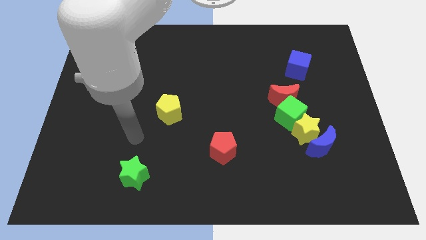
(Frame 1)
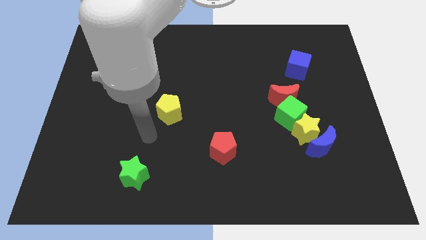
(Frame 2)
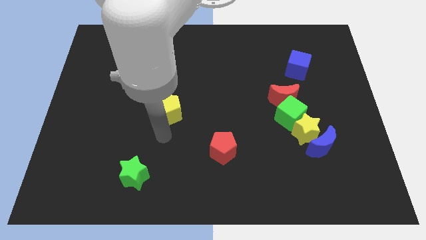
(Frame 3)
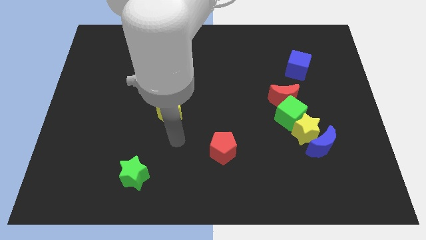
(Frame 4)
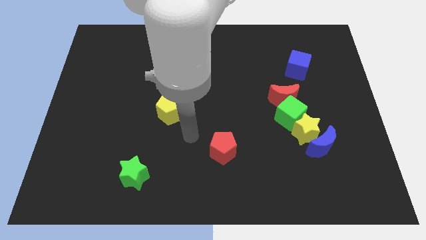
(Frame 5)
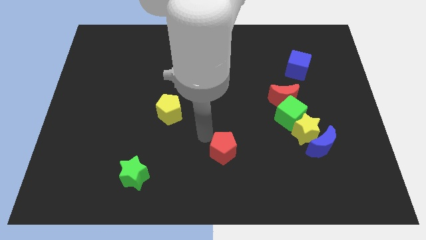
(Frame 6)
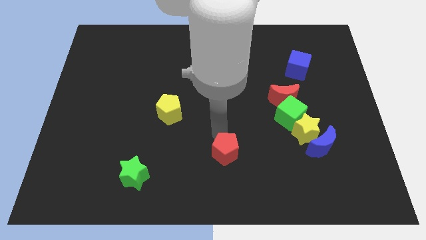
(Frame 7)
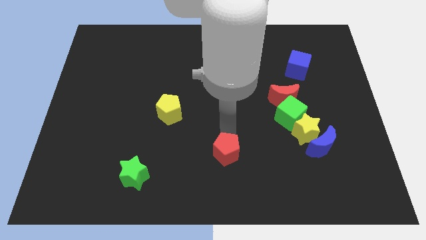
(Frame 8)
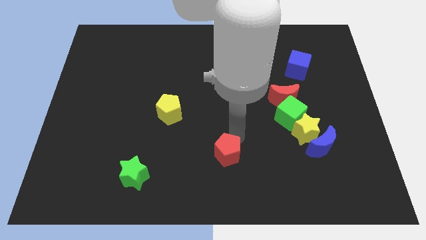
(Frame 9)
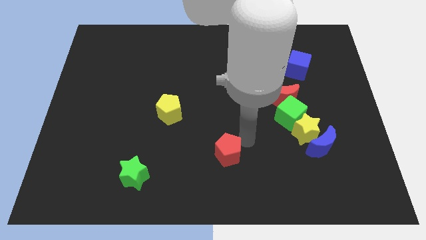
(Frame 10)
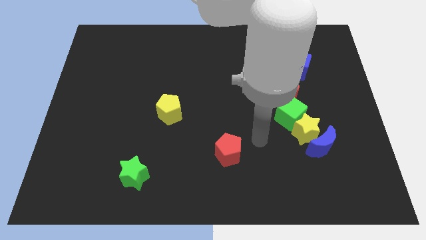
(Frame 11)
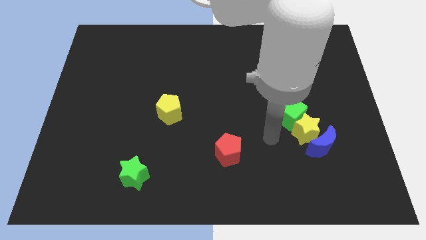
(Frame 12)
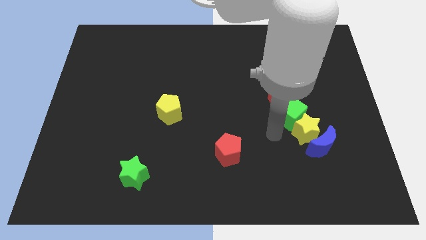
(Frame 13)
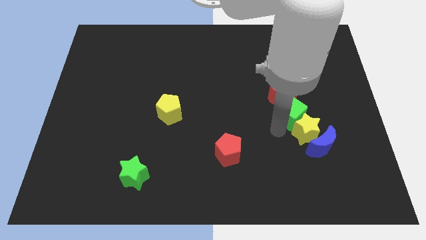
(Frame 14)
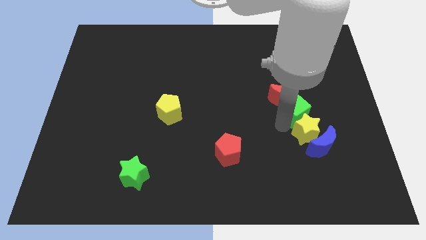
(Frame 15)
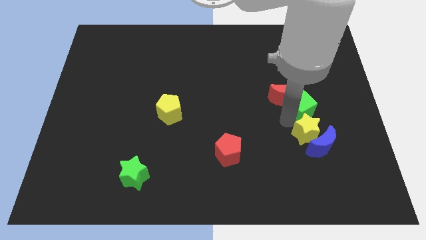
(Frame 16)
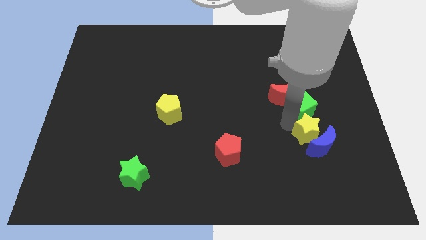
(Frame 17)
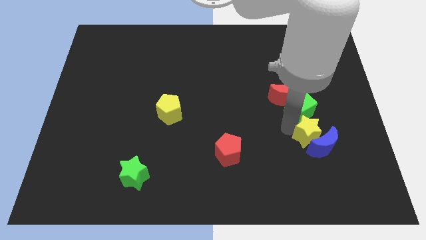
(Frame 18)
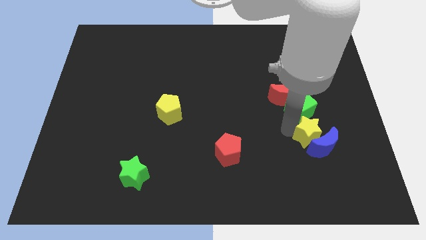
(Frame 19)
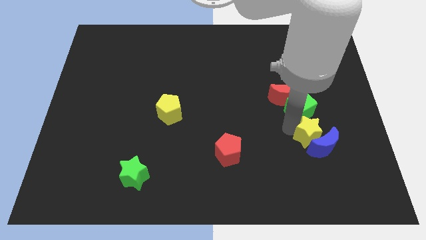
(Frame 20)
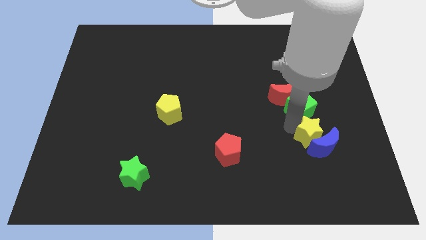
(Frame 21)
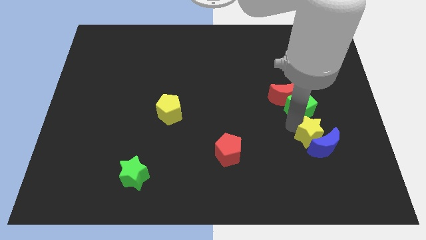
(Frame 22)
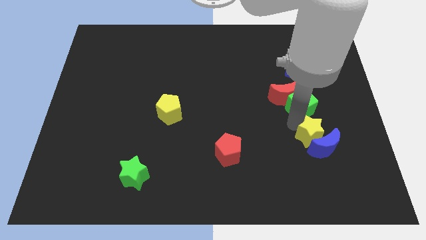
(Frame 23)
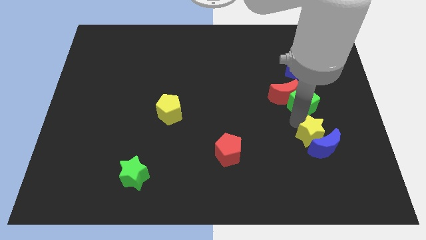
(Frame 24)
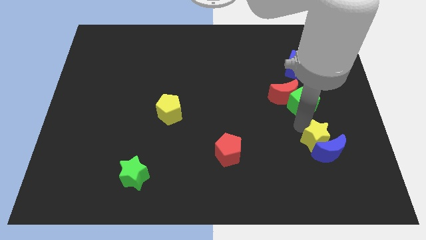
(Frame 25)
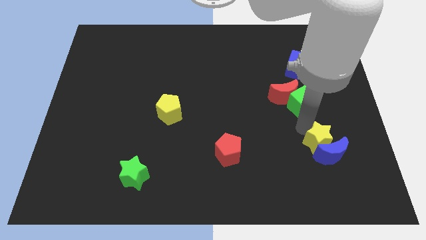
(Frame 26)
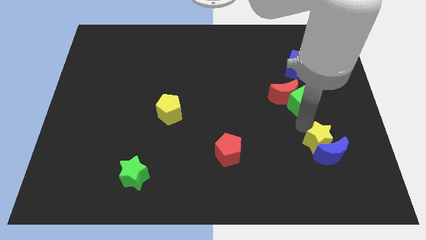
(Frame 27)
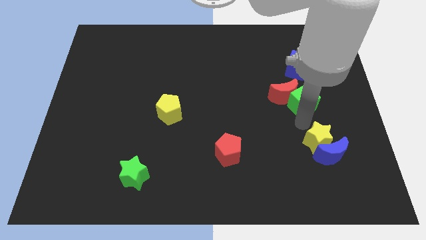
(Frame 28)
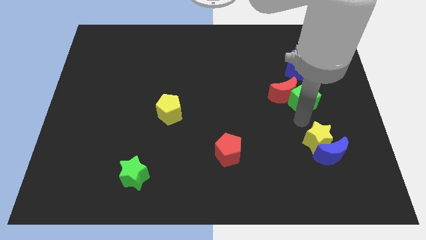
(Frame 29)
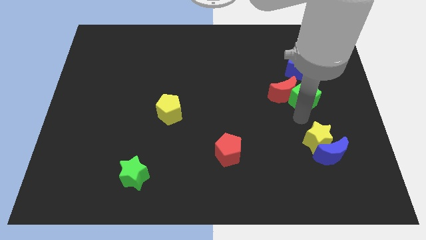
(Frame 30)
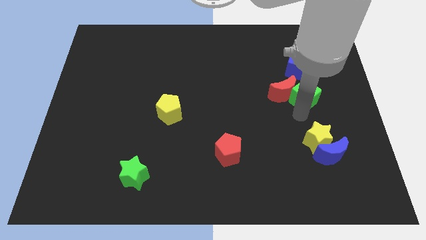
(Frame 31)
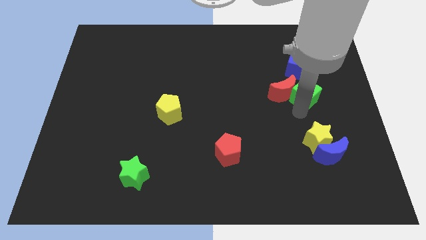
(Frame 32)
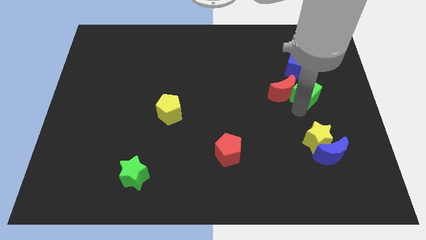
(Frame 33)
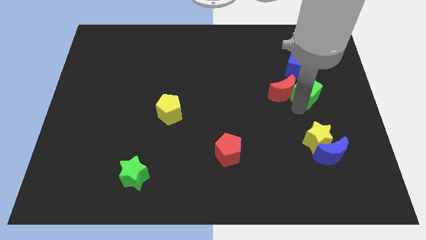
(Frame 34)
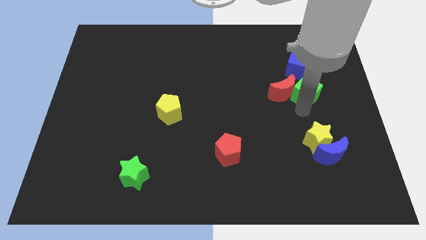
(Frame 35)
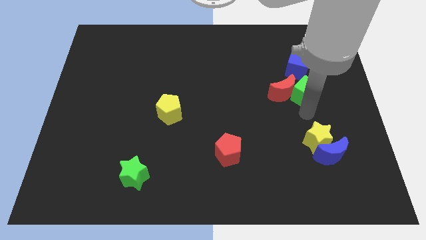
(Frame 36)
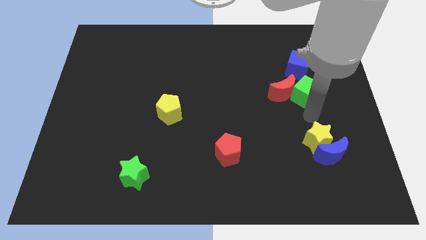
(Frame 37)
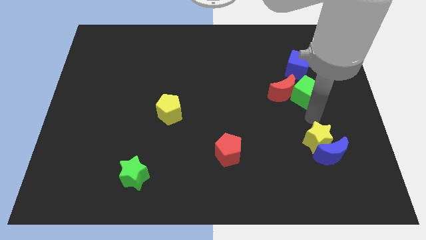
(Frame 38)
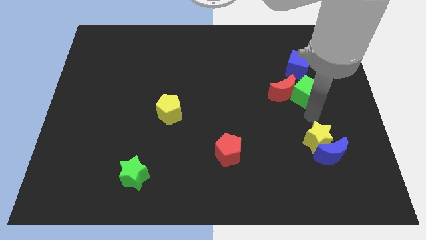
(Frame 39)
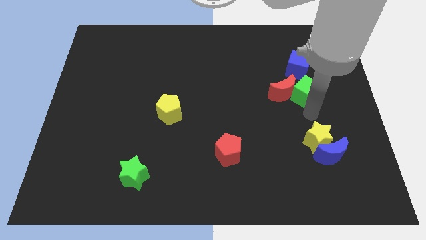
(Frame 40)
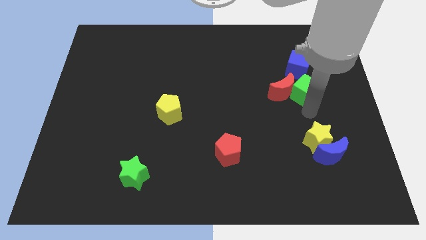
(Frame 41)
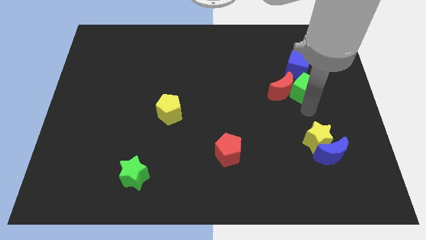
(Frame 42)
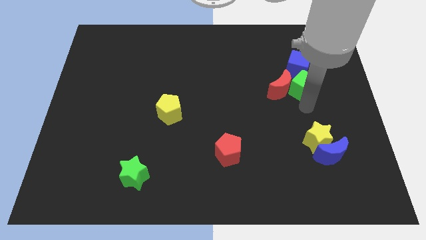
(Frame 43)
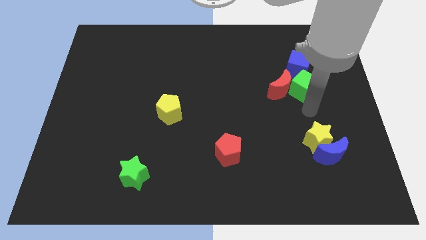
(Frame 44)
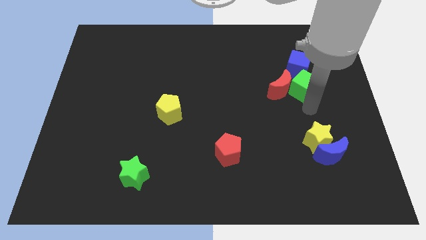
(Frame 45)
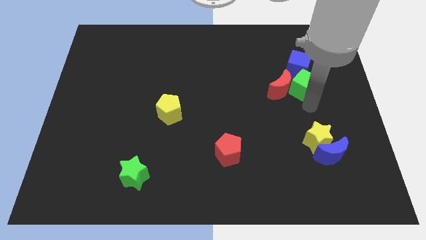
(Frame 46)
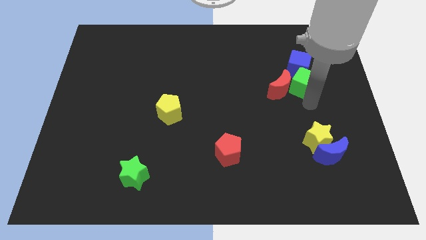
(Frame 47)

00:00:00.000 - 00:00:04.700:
put the green cube to the blue cube

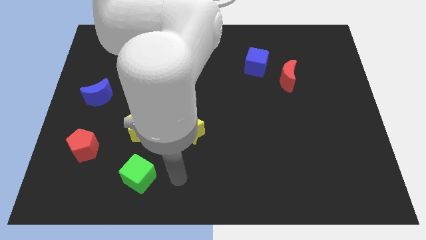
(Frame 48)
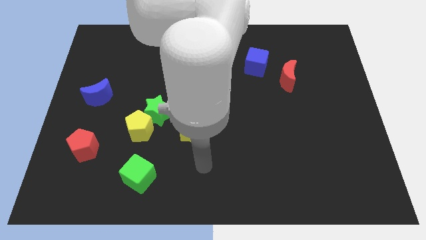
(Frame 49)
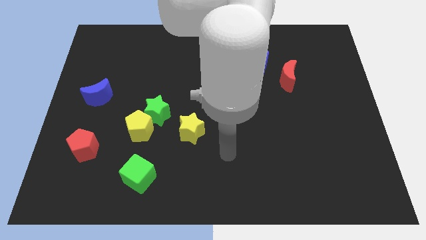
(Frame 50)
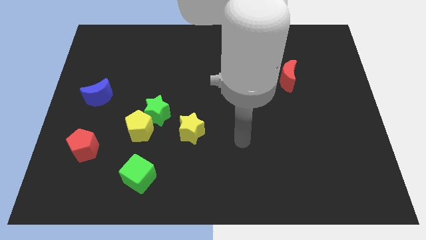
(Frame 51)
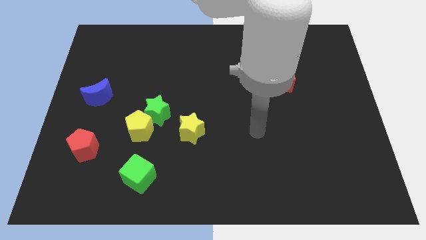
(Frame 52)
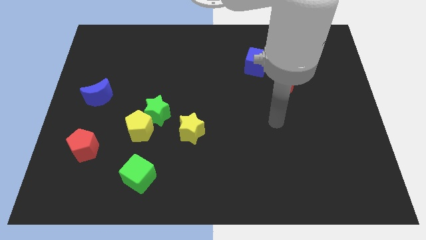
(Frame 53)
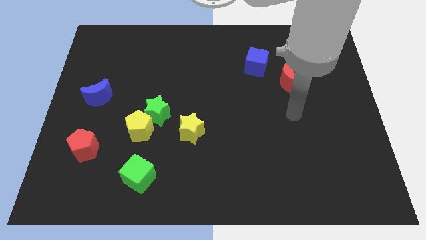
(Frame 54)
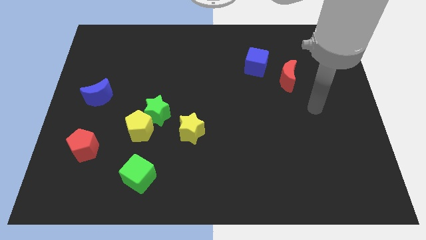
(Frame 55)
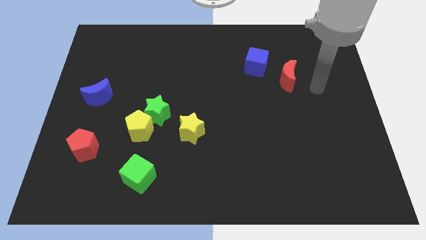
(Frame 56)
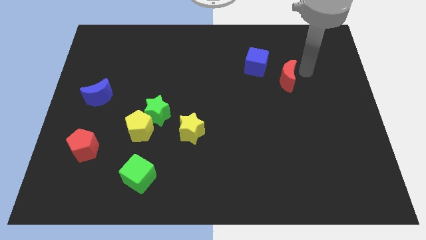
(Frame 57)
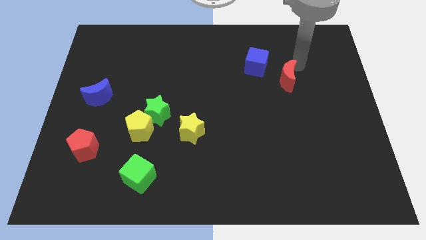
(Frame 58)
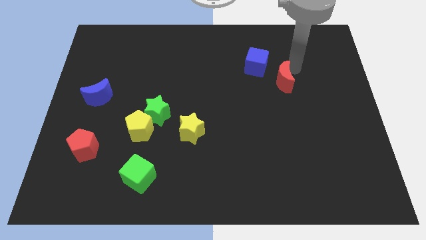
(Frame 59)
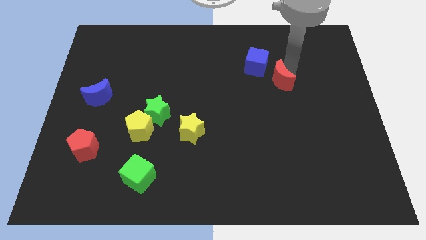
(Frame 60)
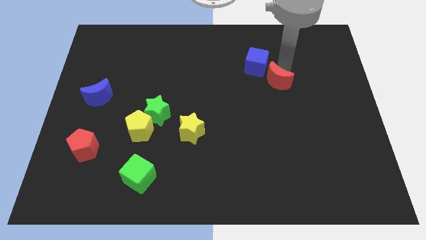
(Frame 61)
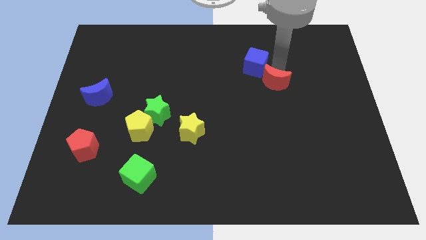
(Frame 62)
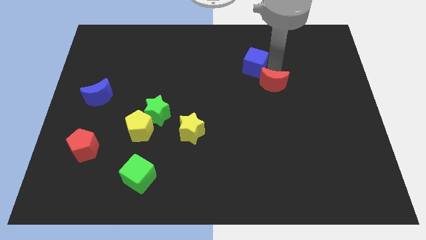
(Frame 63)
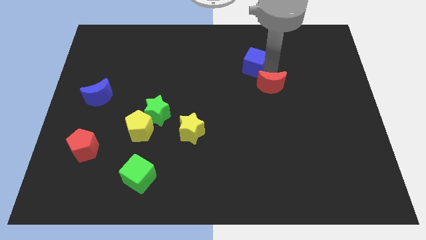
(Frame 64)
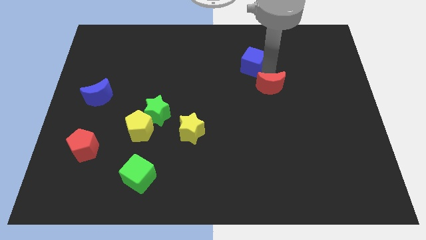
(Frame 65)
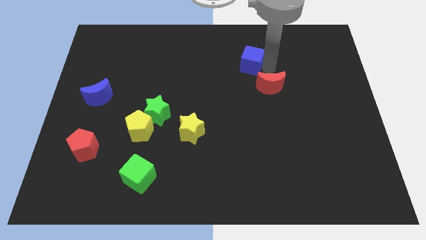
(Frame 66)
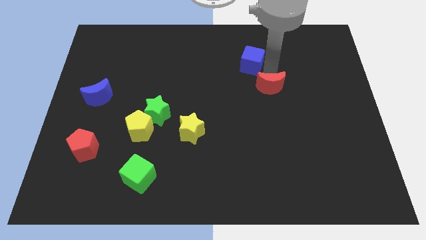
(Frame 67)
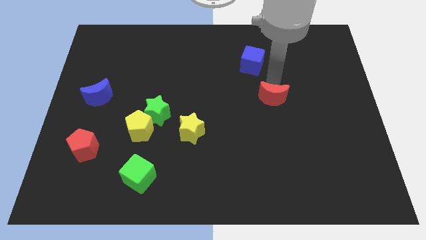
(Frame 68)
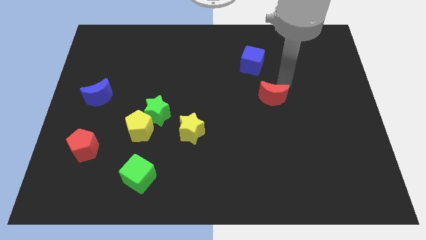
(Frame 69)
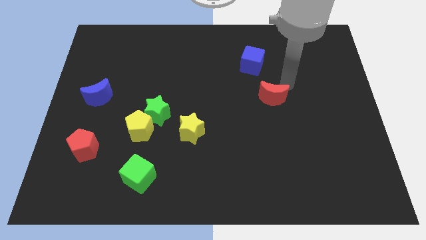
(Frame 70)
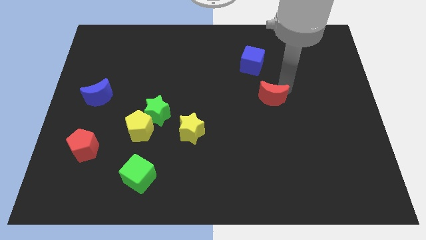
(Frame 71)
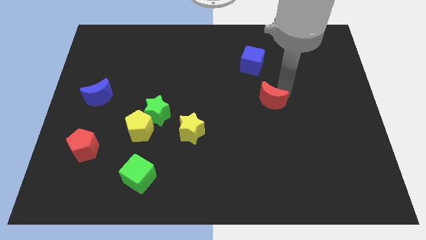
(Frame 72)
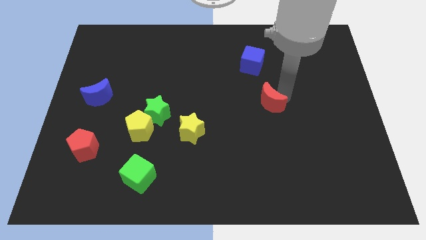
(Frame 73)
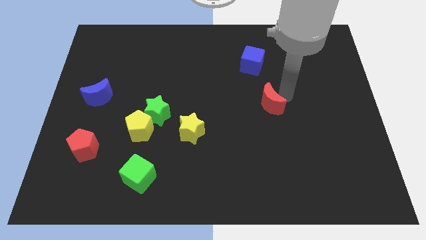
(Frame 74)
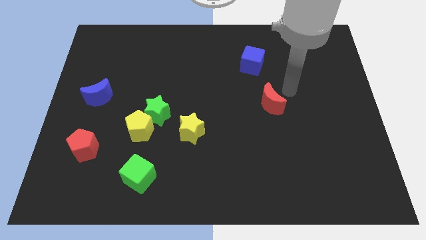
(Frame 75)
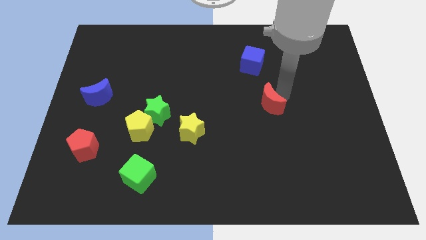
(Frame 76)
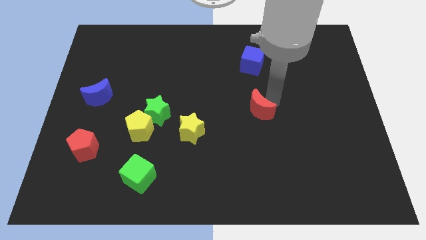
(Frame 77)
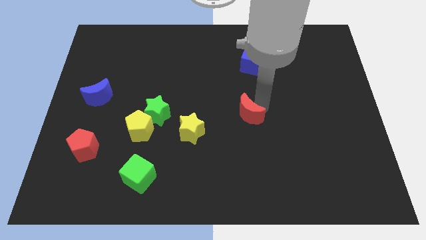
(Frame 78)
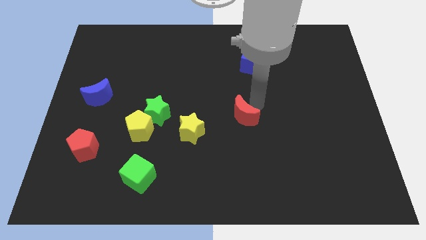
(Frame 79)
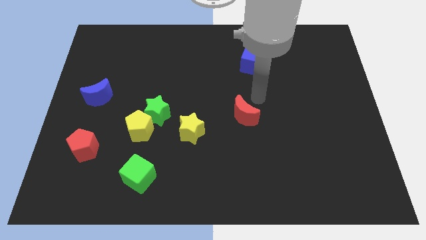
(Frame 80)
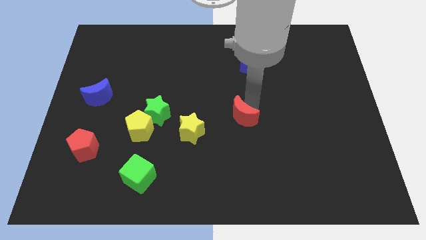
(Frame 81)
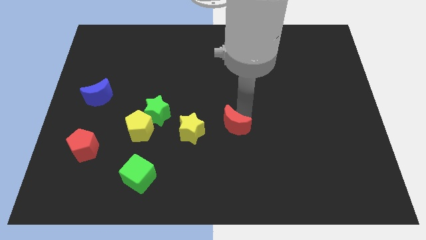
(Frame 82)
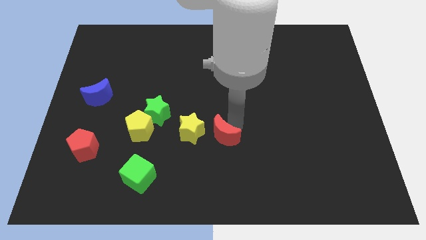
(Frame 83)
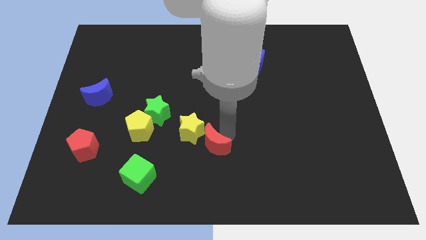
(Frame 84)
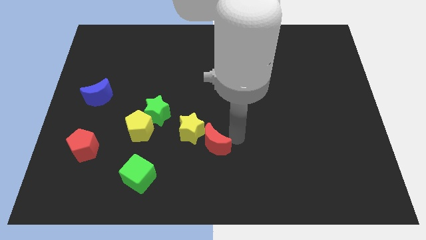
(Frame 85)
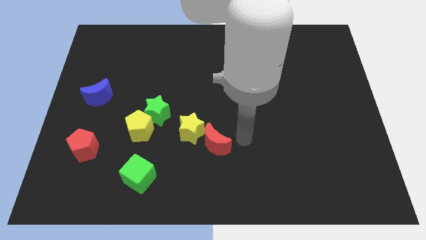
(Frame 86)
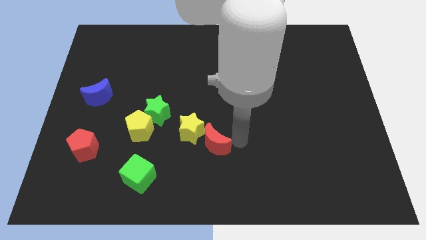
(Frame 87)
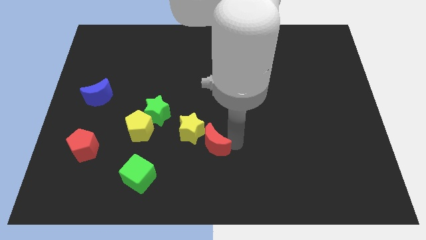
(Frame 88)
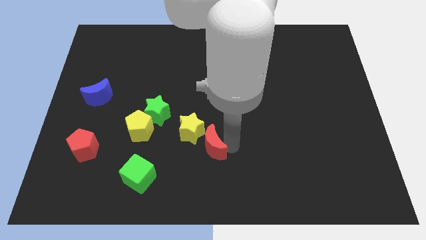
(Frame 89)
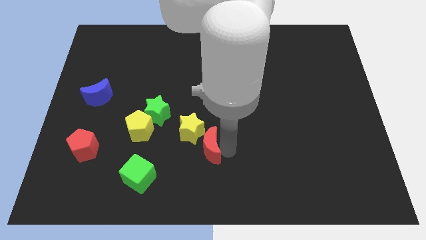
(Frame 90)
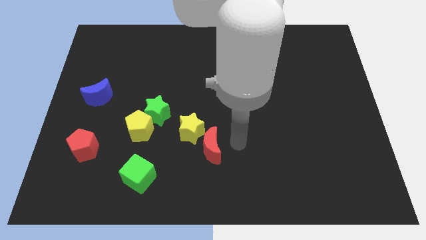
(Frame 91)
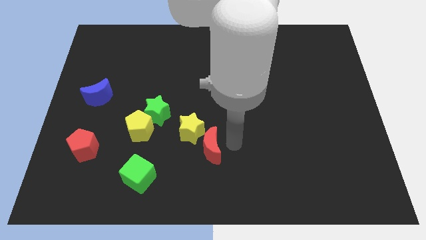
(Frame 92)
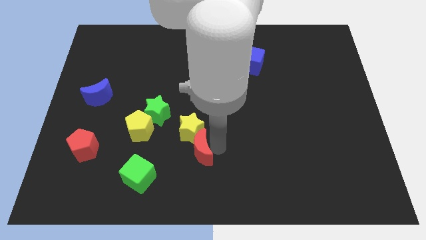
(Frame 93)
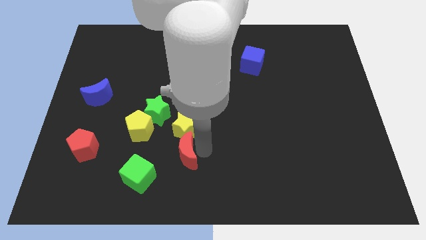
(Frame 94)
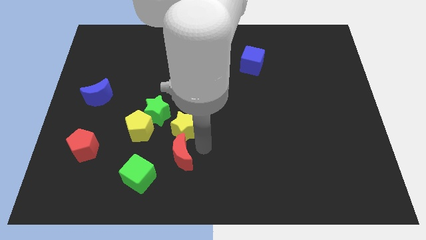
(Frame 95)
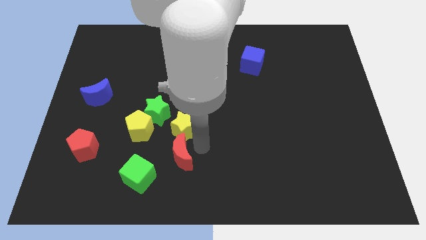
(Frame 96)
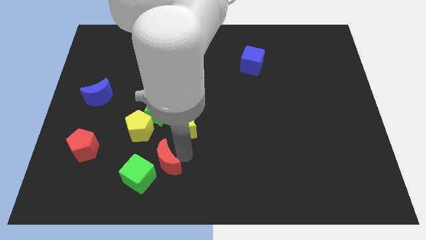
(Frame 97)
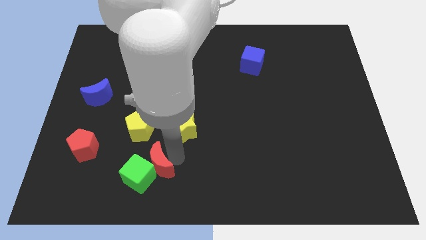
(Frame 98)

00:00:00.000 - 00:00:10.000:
push the red moon to the green cube
